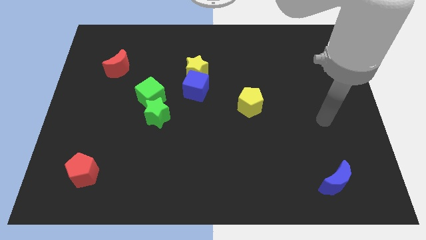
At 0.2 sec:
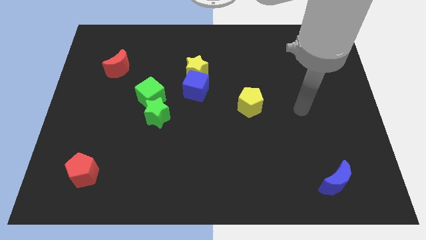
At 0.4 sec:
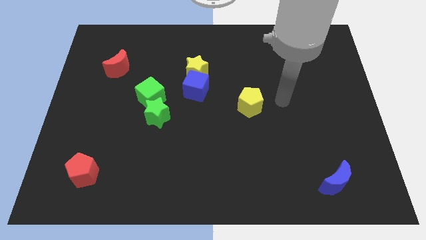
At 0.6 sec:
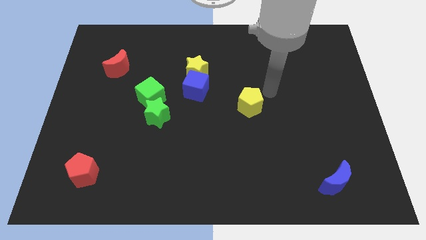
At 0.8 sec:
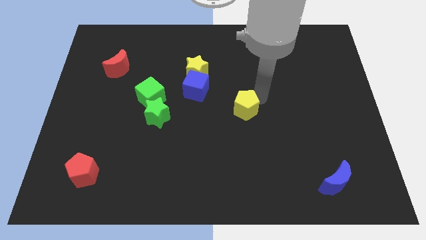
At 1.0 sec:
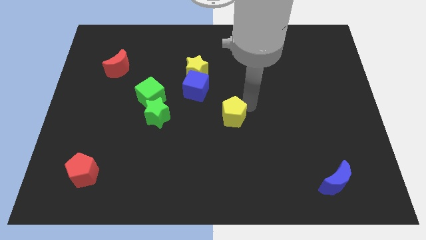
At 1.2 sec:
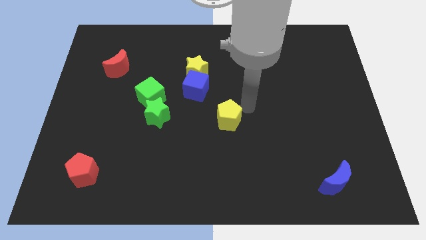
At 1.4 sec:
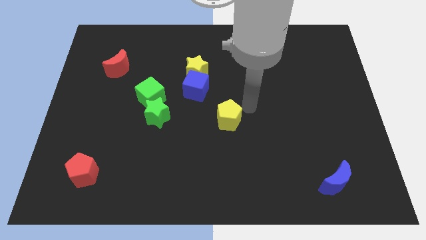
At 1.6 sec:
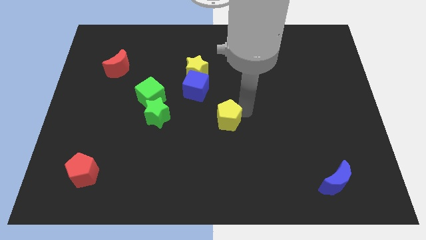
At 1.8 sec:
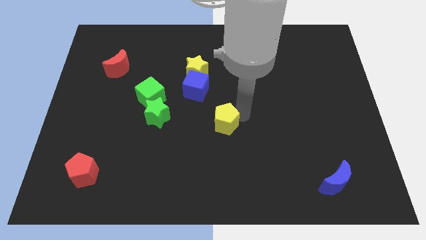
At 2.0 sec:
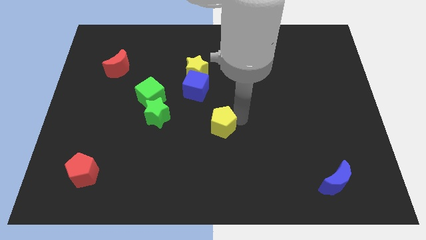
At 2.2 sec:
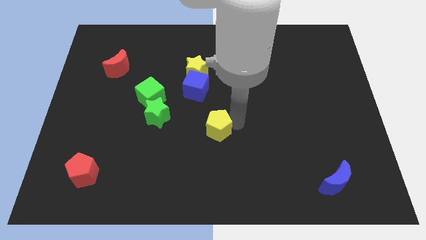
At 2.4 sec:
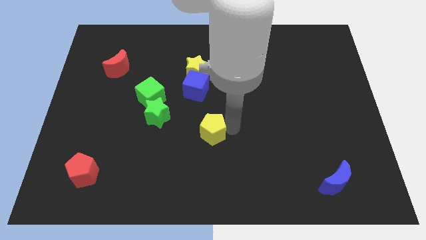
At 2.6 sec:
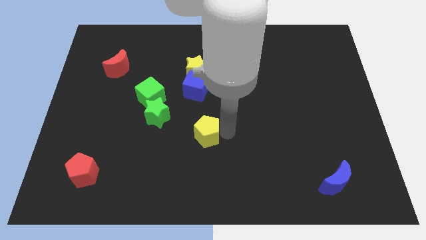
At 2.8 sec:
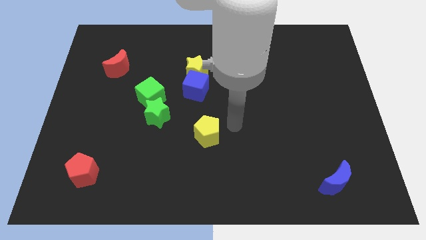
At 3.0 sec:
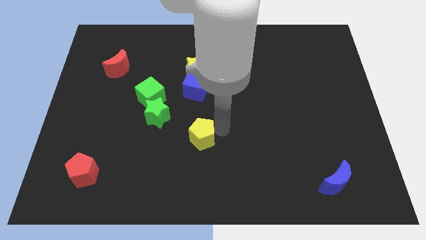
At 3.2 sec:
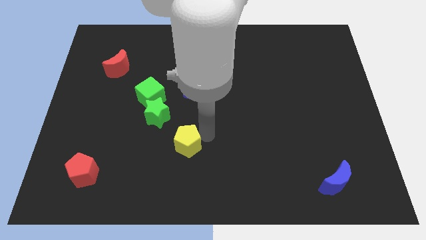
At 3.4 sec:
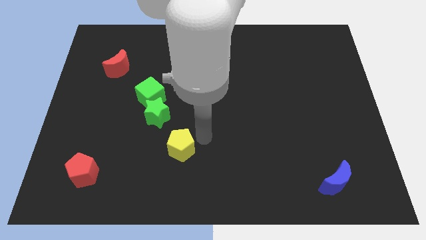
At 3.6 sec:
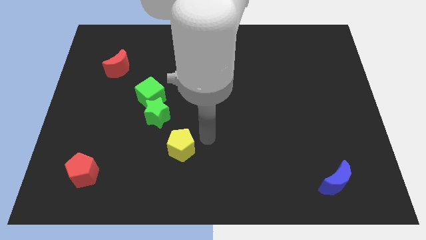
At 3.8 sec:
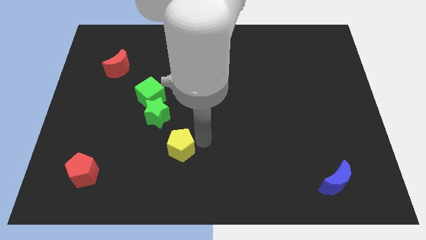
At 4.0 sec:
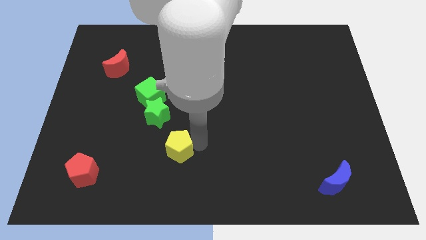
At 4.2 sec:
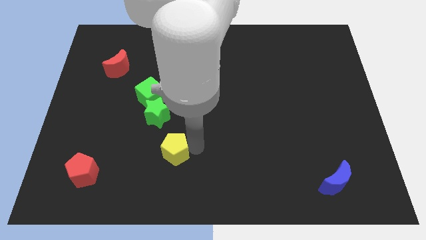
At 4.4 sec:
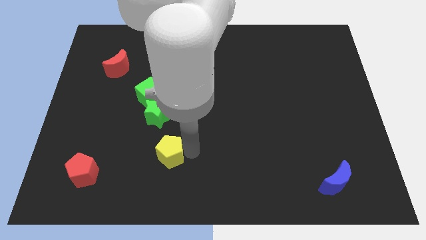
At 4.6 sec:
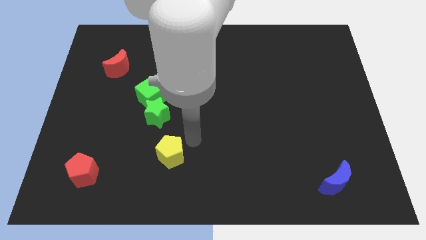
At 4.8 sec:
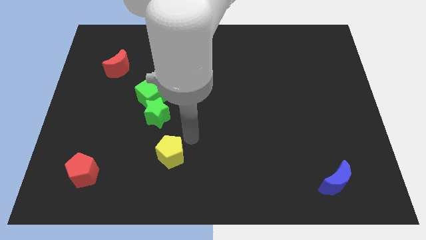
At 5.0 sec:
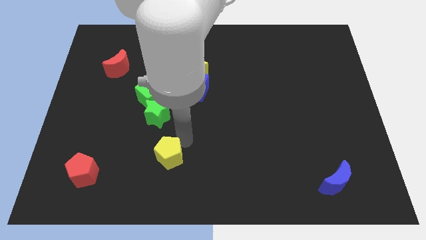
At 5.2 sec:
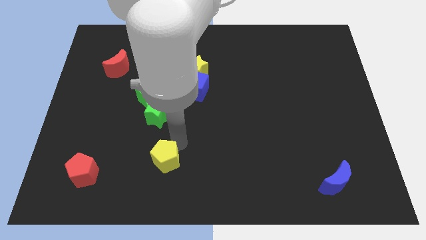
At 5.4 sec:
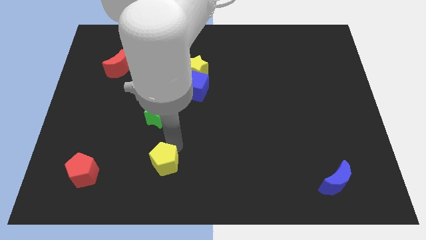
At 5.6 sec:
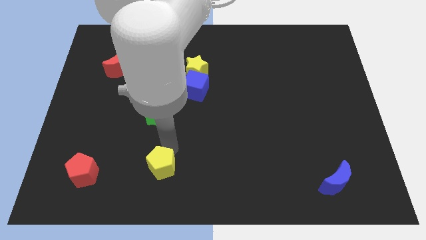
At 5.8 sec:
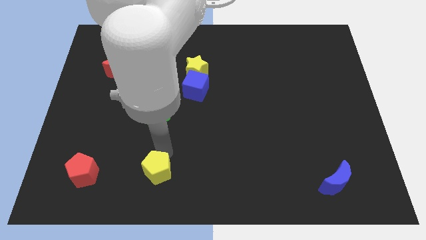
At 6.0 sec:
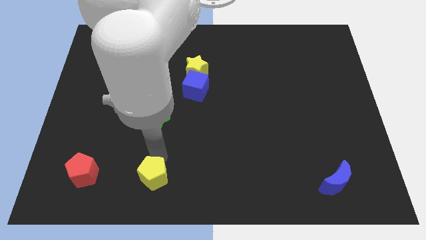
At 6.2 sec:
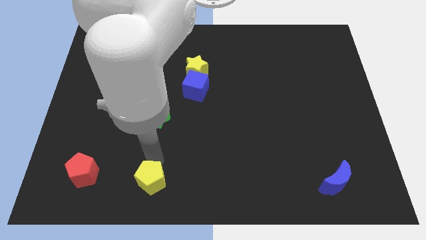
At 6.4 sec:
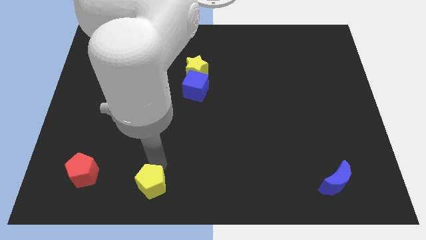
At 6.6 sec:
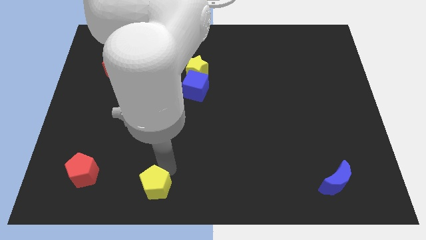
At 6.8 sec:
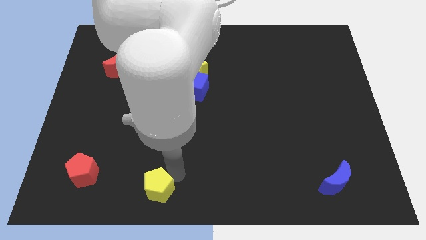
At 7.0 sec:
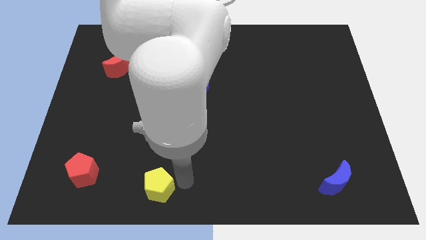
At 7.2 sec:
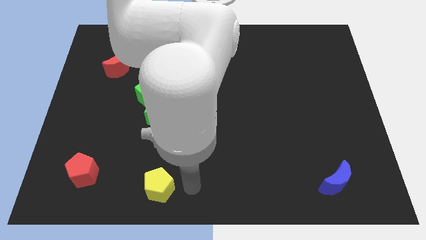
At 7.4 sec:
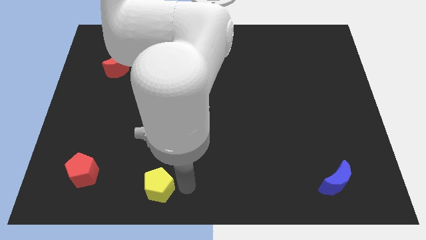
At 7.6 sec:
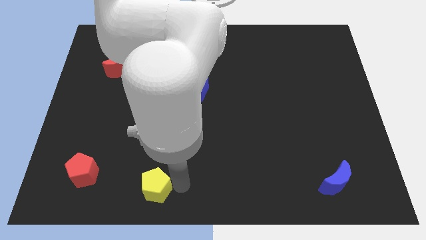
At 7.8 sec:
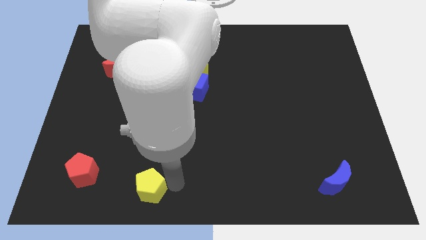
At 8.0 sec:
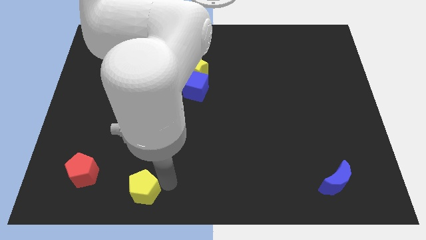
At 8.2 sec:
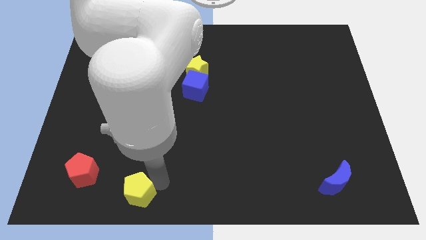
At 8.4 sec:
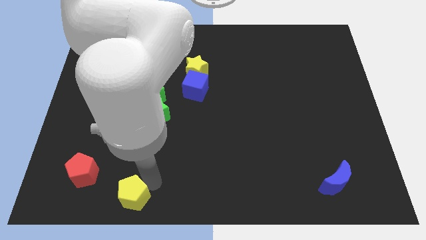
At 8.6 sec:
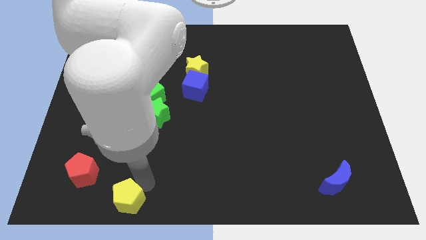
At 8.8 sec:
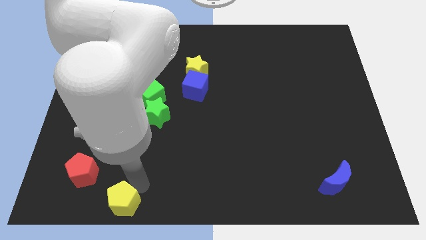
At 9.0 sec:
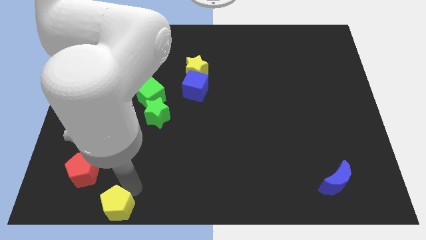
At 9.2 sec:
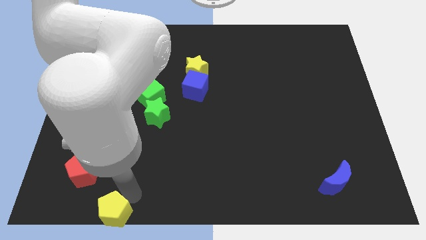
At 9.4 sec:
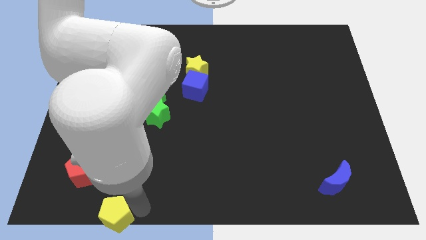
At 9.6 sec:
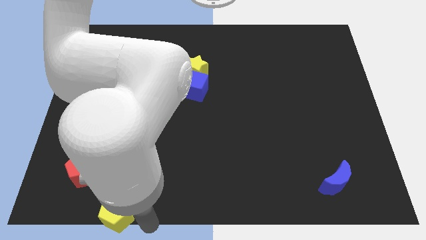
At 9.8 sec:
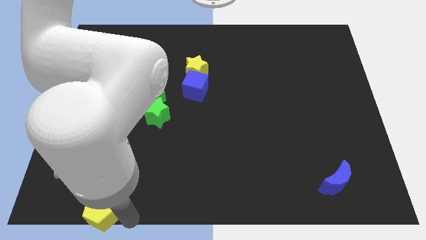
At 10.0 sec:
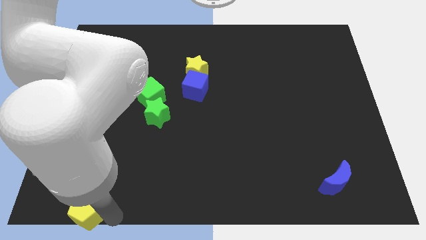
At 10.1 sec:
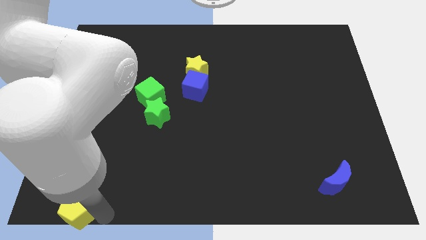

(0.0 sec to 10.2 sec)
slide the yellow pentagon to the bottom left corner
